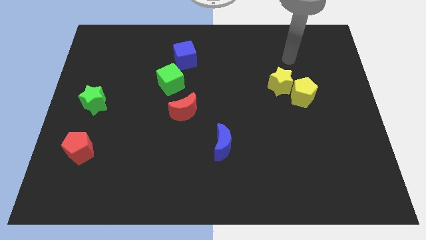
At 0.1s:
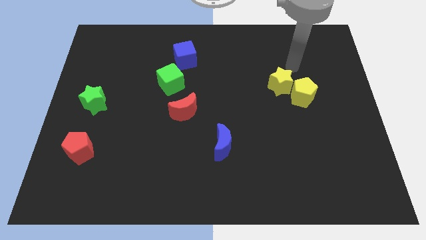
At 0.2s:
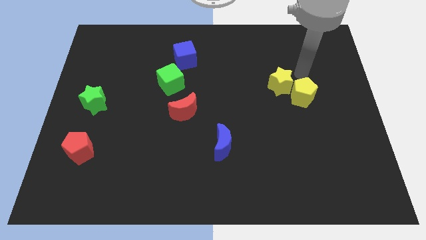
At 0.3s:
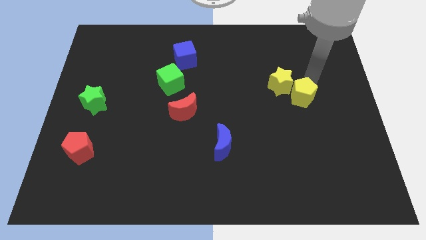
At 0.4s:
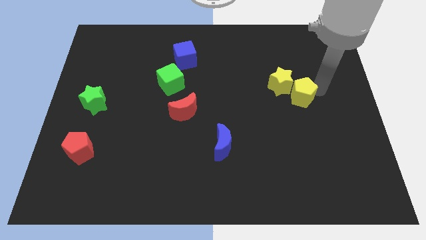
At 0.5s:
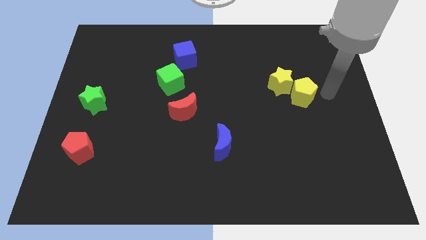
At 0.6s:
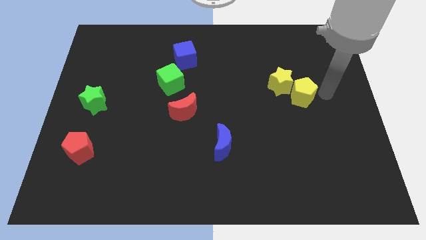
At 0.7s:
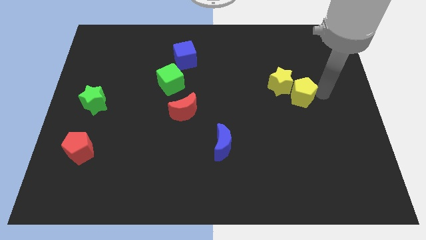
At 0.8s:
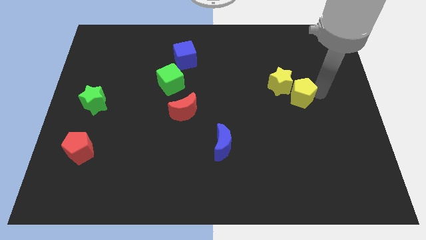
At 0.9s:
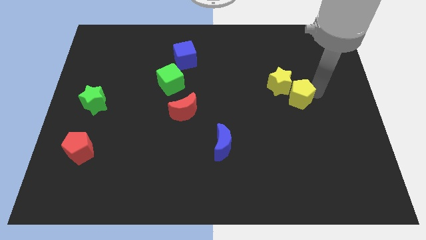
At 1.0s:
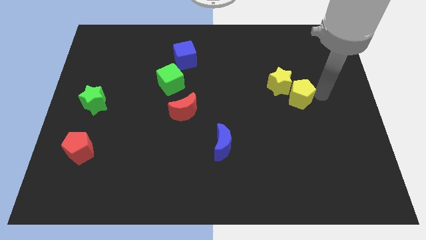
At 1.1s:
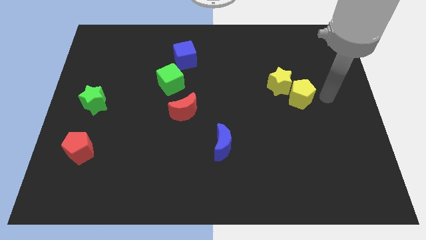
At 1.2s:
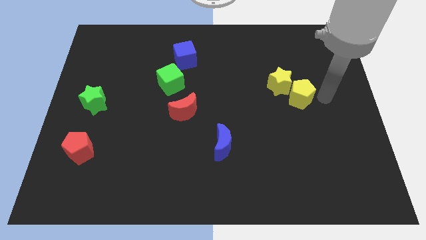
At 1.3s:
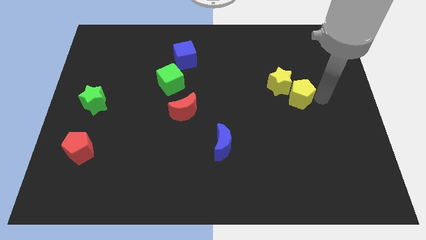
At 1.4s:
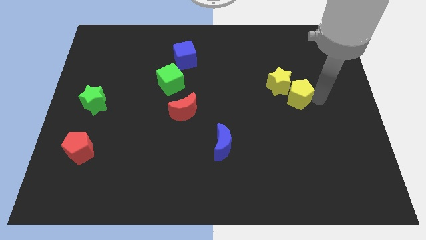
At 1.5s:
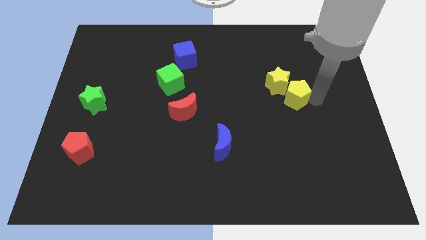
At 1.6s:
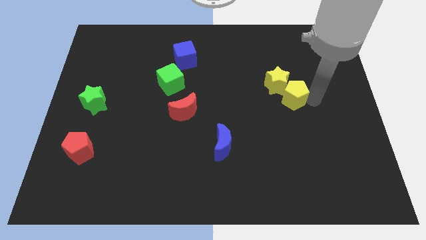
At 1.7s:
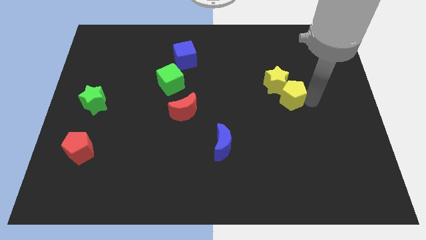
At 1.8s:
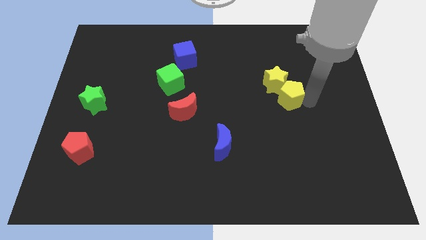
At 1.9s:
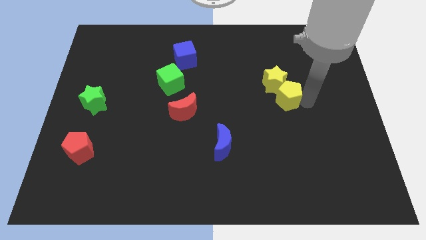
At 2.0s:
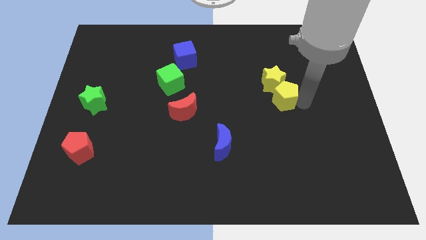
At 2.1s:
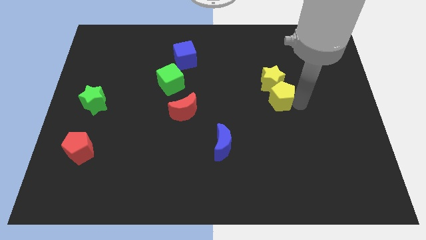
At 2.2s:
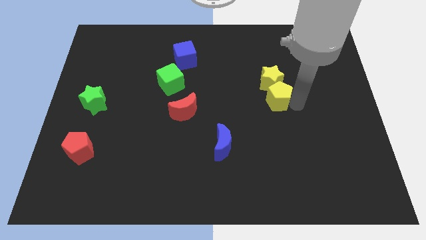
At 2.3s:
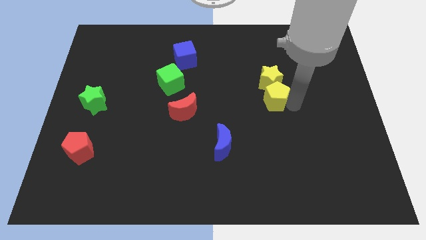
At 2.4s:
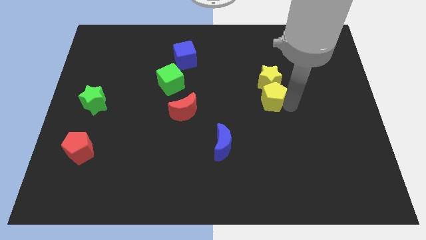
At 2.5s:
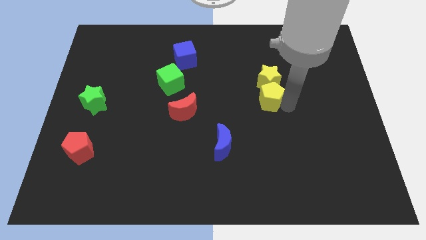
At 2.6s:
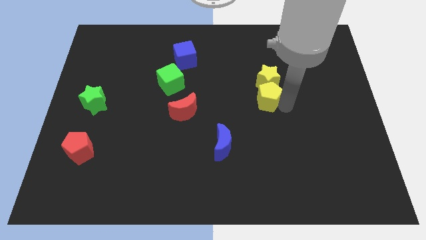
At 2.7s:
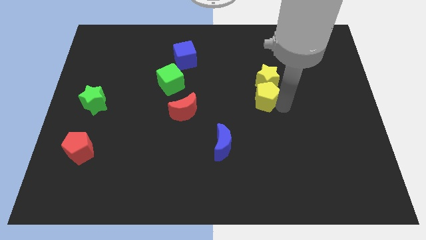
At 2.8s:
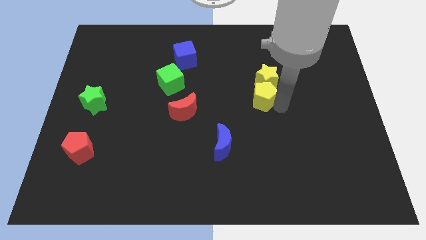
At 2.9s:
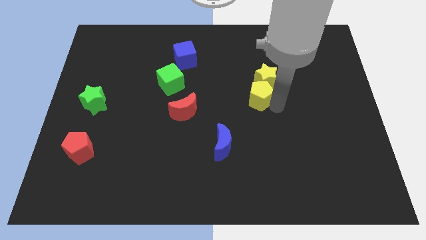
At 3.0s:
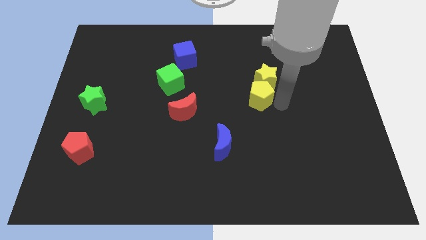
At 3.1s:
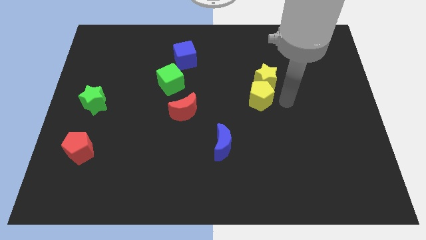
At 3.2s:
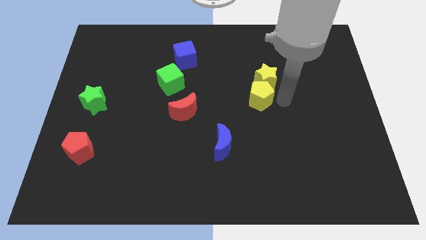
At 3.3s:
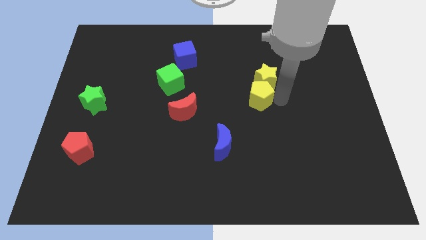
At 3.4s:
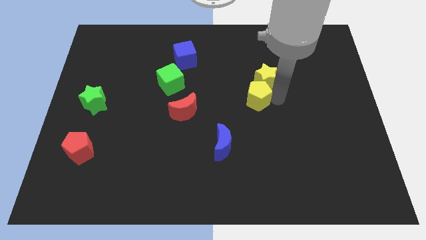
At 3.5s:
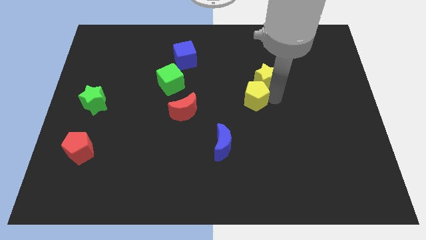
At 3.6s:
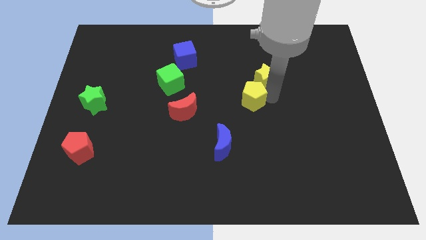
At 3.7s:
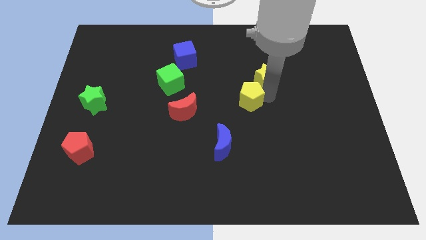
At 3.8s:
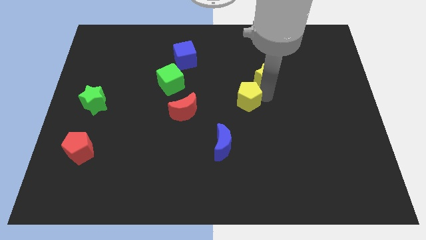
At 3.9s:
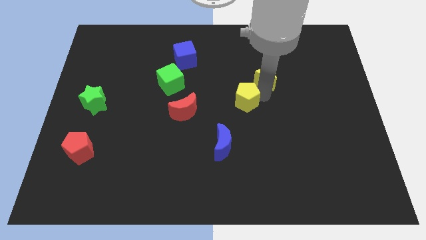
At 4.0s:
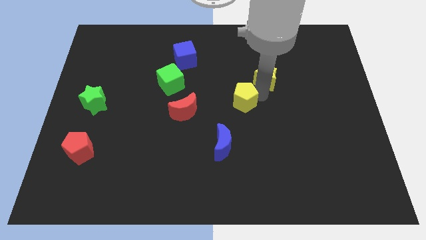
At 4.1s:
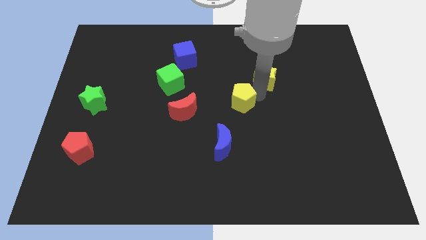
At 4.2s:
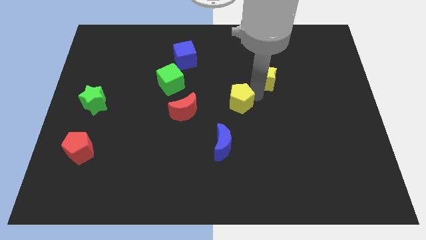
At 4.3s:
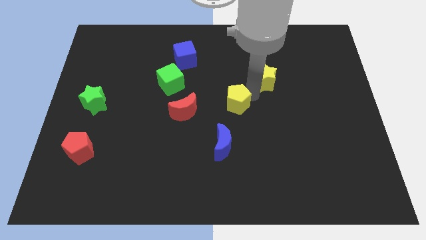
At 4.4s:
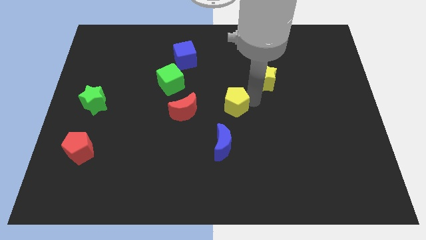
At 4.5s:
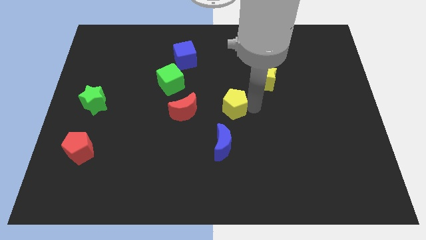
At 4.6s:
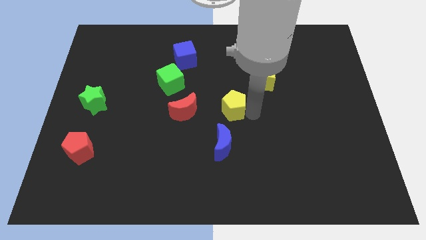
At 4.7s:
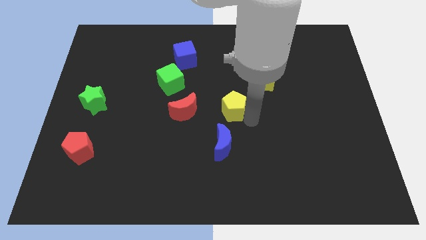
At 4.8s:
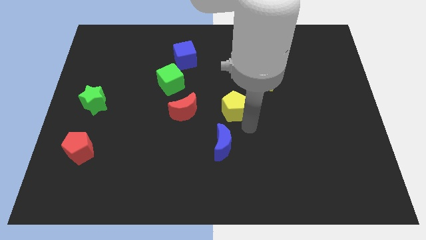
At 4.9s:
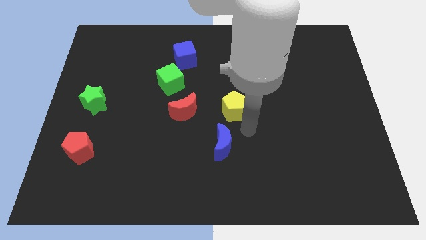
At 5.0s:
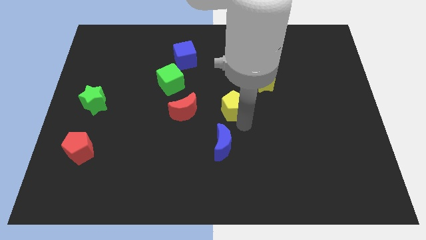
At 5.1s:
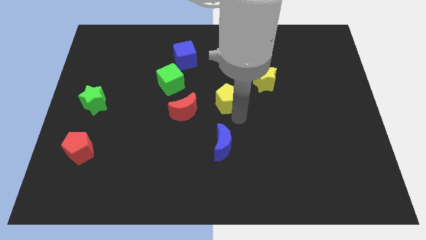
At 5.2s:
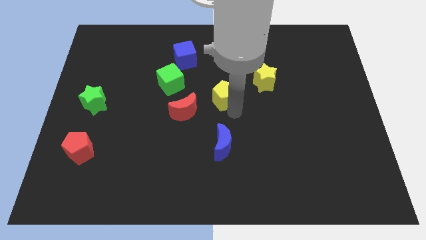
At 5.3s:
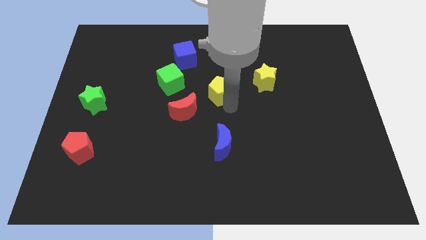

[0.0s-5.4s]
slide the yellow pentagon just right of the green cube

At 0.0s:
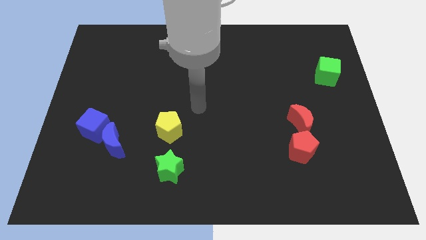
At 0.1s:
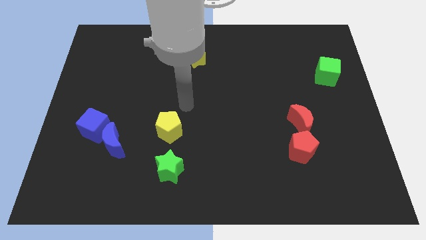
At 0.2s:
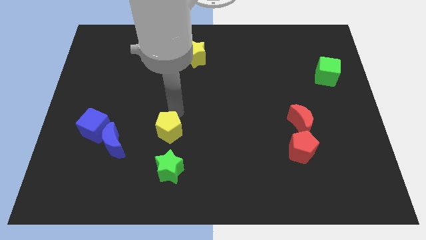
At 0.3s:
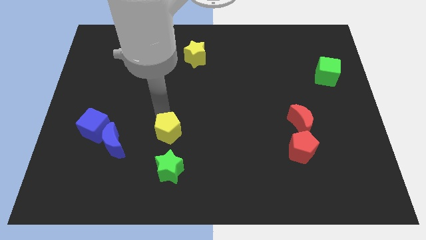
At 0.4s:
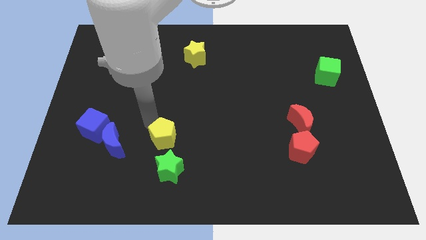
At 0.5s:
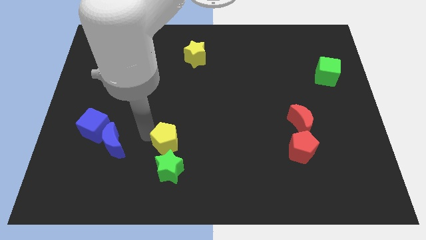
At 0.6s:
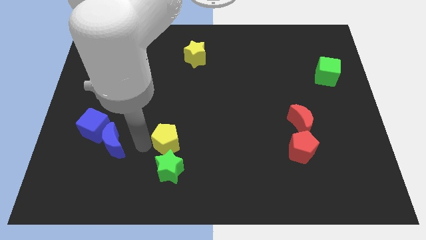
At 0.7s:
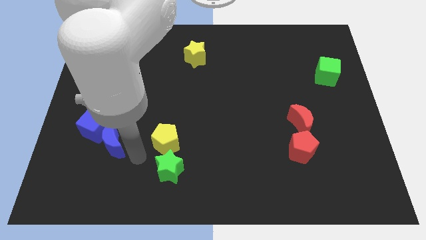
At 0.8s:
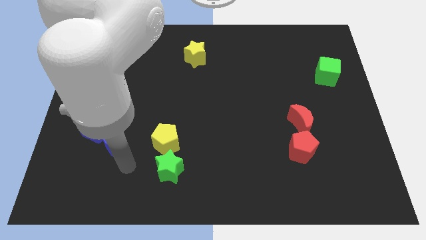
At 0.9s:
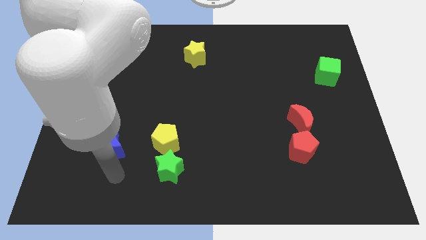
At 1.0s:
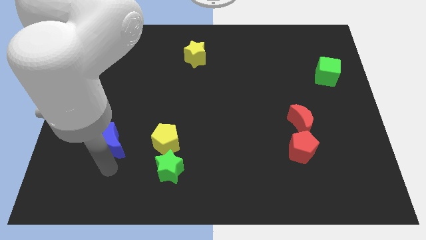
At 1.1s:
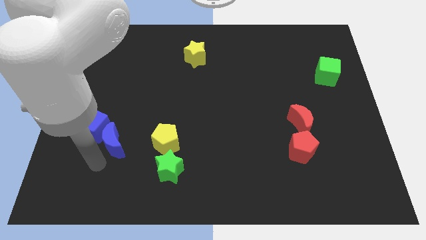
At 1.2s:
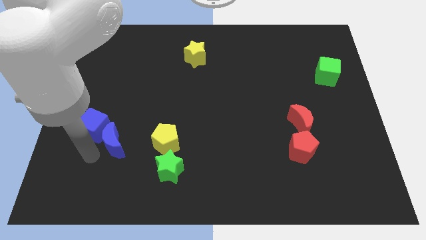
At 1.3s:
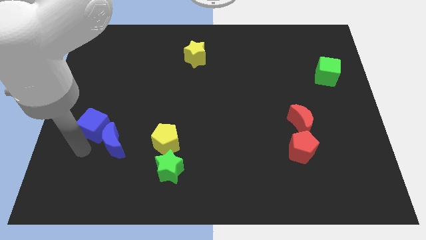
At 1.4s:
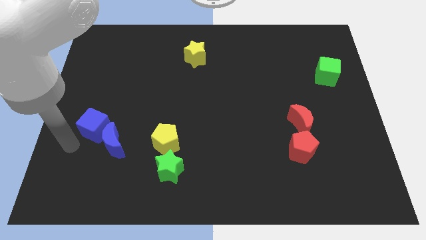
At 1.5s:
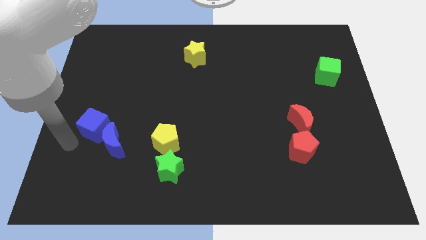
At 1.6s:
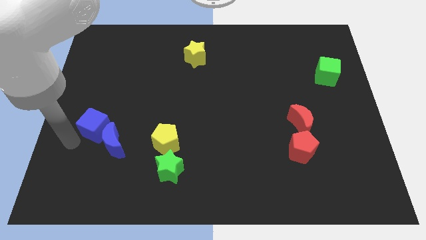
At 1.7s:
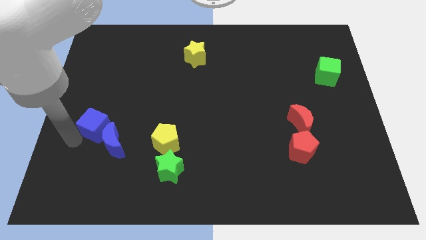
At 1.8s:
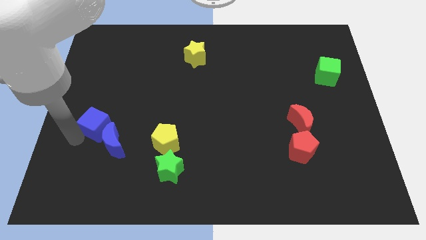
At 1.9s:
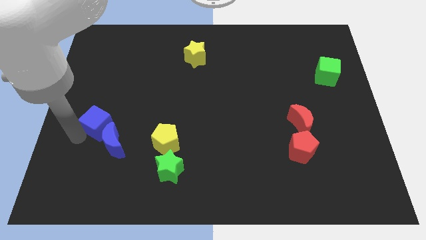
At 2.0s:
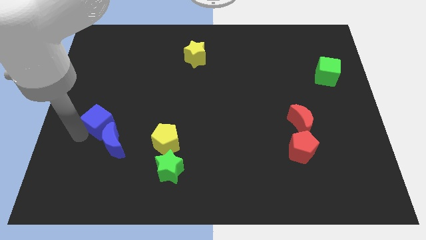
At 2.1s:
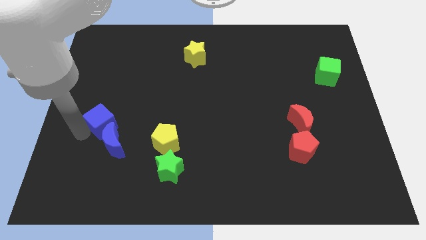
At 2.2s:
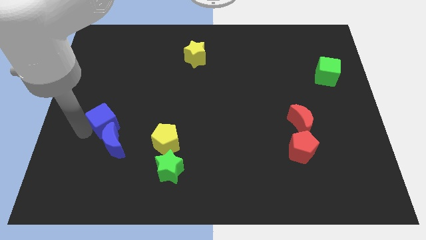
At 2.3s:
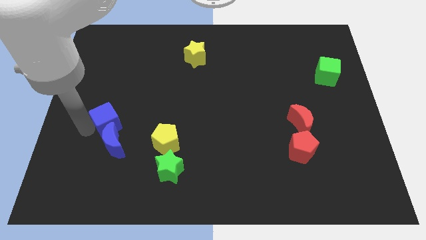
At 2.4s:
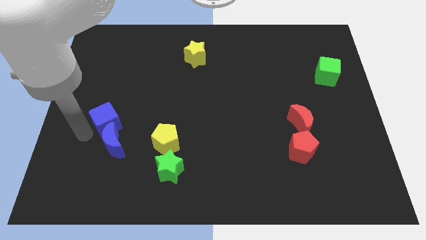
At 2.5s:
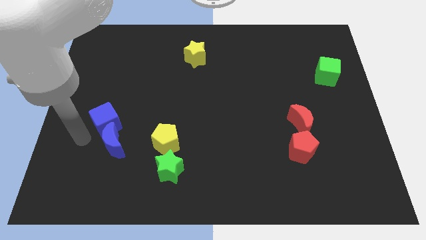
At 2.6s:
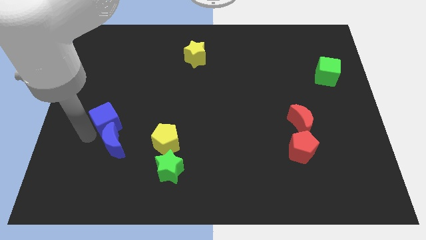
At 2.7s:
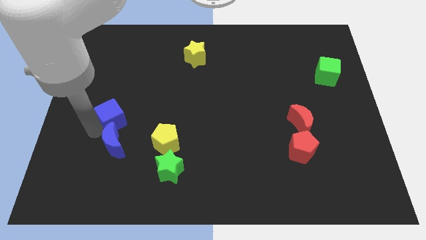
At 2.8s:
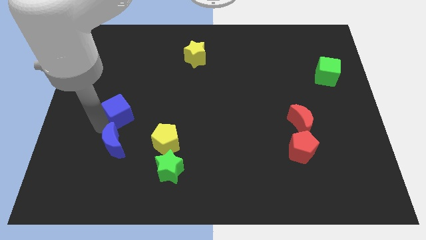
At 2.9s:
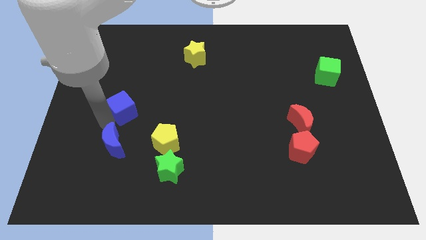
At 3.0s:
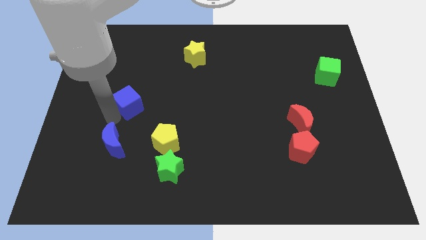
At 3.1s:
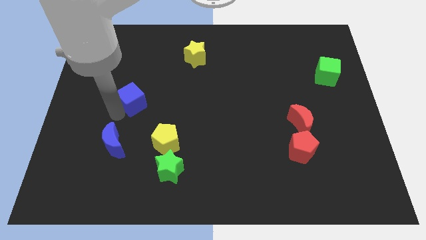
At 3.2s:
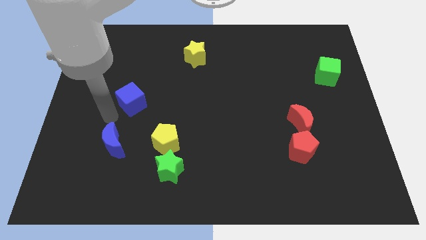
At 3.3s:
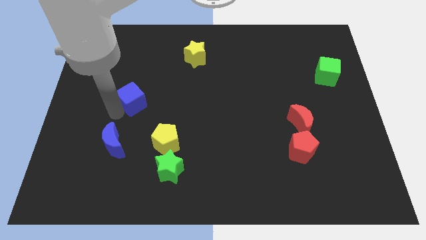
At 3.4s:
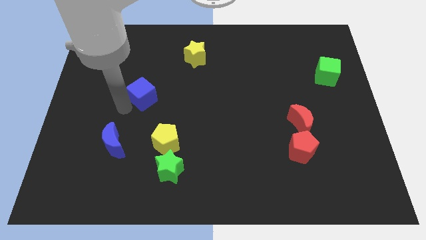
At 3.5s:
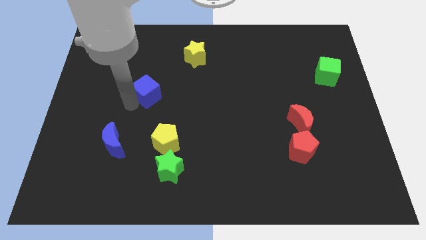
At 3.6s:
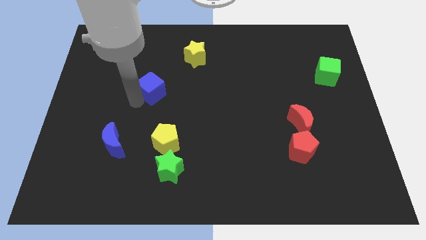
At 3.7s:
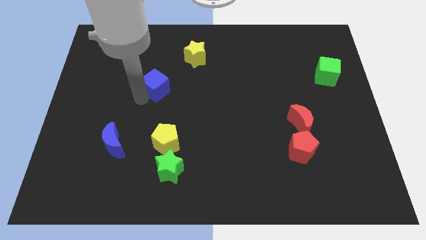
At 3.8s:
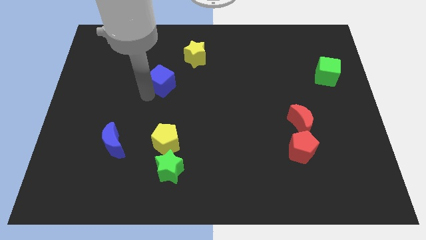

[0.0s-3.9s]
push the blue cube to the bottom left of the yellow star
